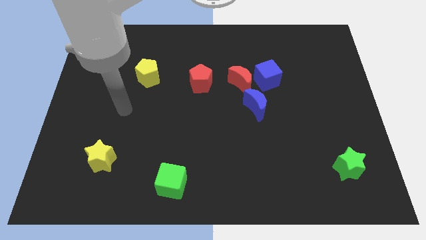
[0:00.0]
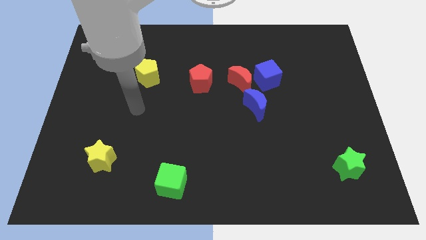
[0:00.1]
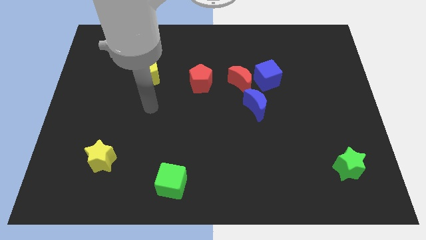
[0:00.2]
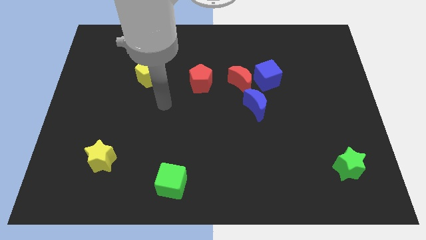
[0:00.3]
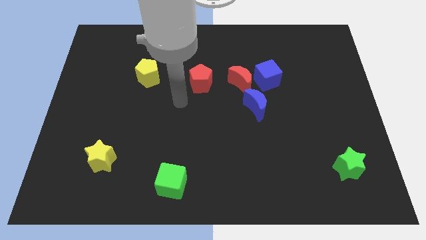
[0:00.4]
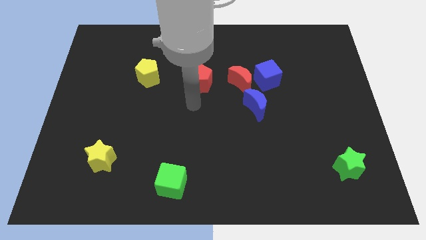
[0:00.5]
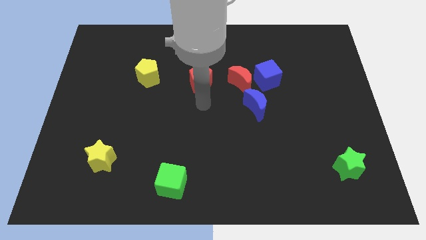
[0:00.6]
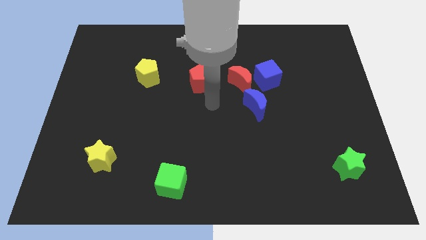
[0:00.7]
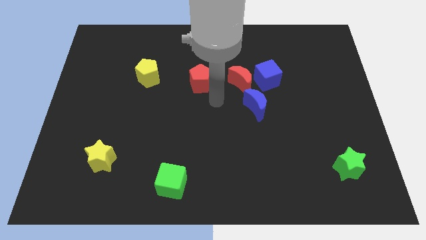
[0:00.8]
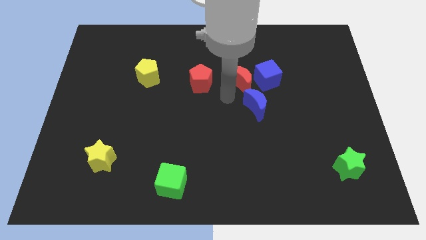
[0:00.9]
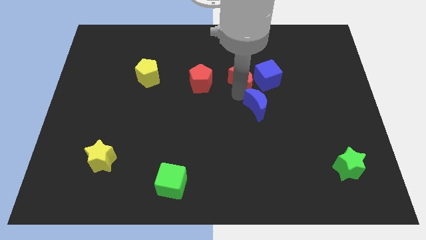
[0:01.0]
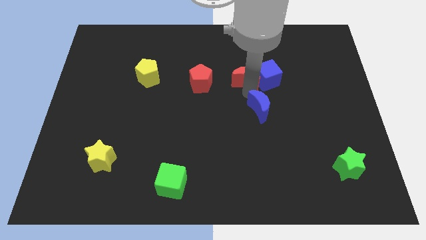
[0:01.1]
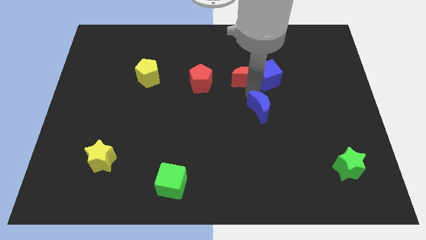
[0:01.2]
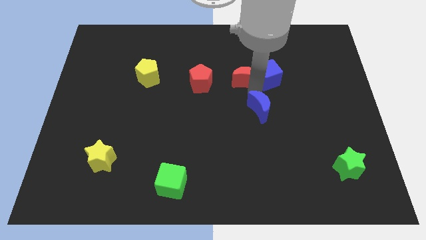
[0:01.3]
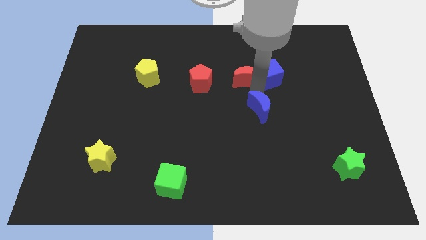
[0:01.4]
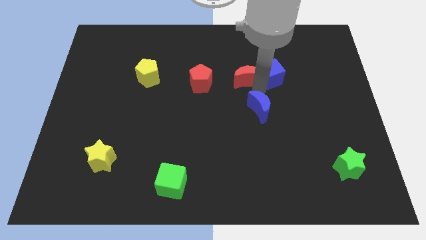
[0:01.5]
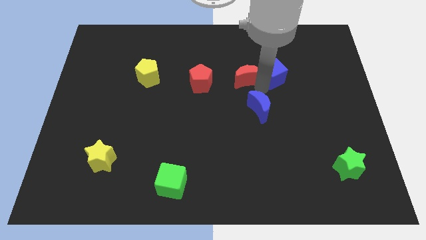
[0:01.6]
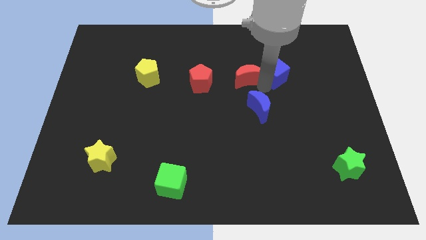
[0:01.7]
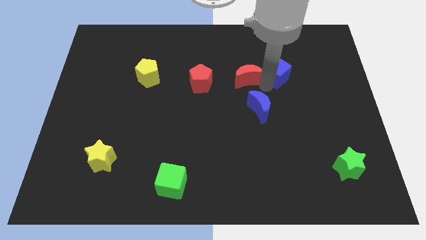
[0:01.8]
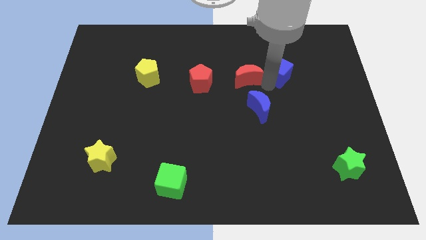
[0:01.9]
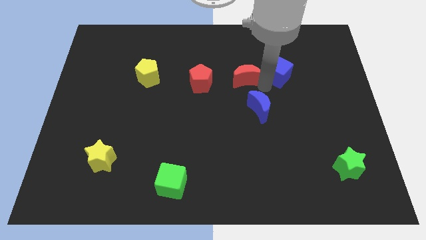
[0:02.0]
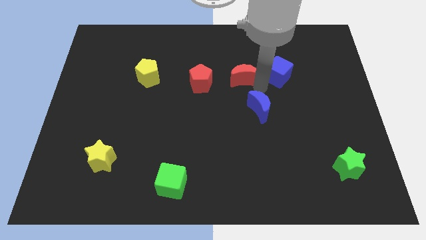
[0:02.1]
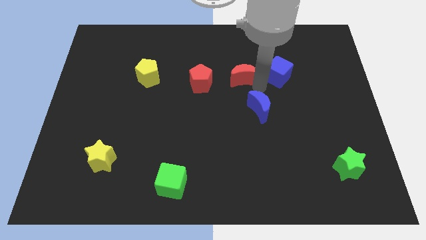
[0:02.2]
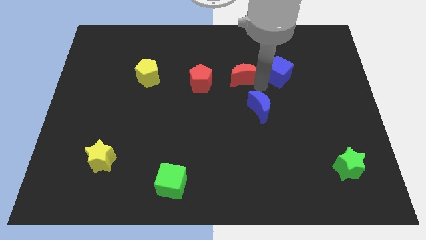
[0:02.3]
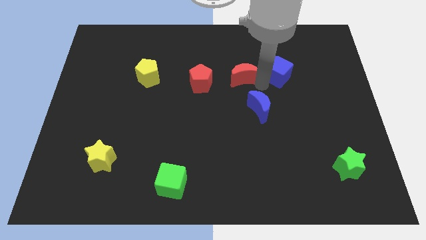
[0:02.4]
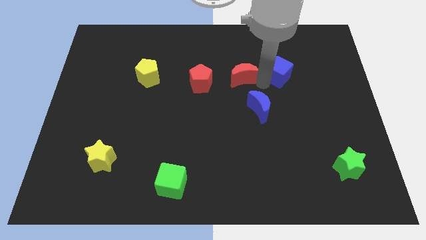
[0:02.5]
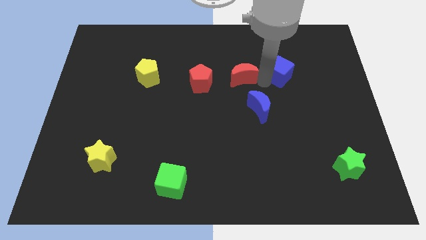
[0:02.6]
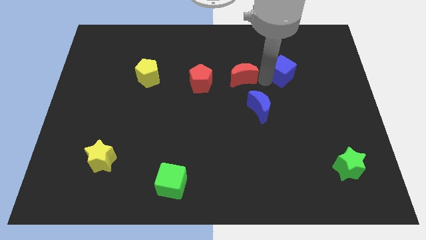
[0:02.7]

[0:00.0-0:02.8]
pull the blue cube apart from the red moon and blue moon

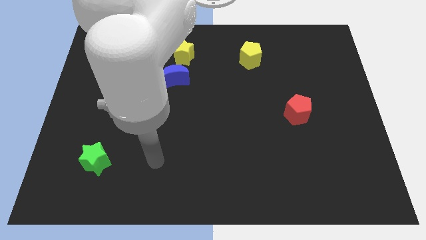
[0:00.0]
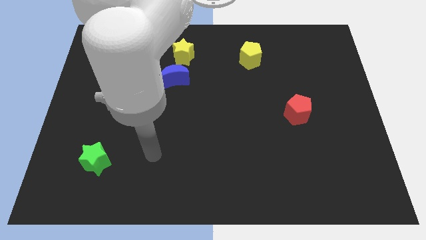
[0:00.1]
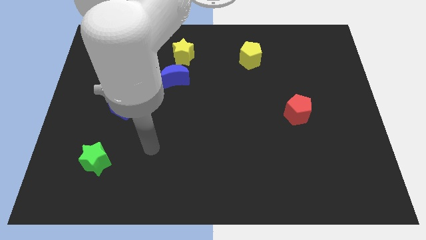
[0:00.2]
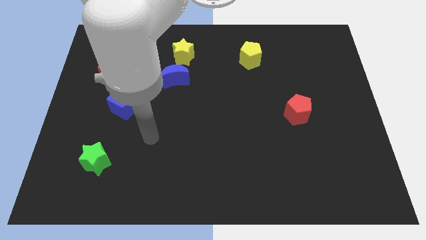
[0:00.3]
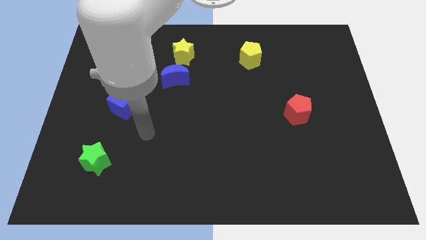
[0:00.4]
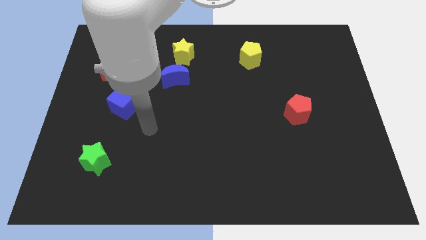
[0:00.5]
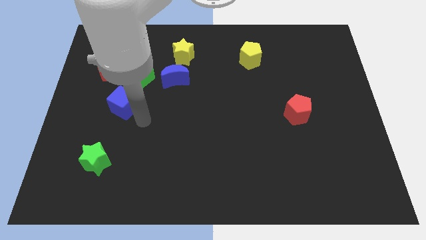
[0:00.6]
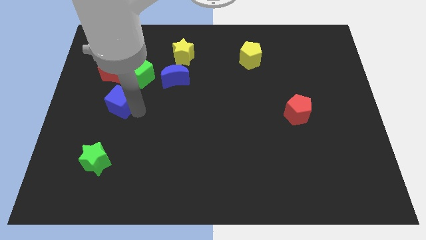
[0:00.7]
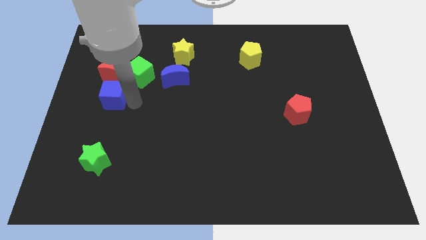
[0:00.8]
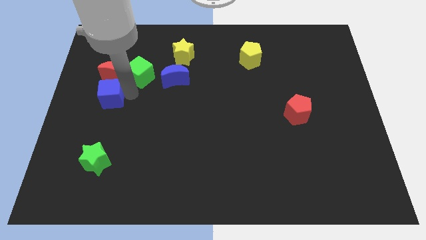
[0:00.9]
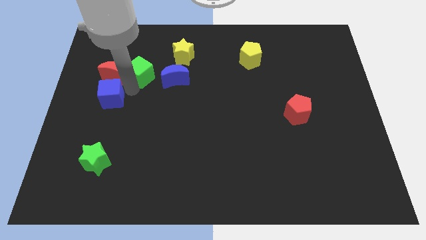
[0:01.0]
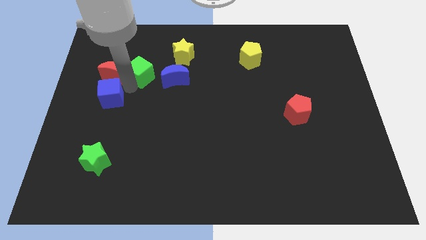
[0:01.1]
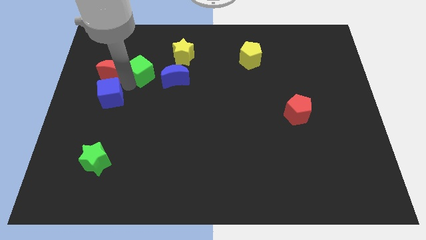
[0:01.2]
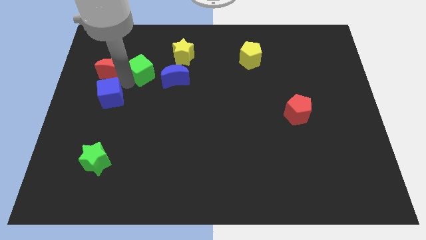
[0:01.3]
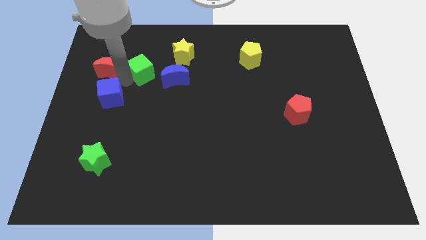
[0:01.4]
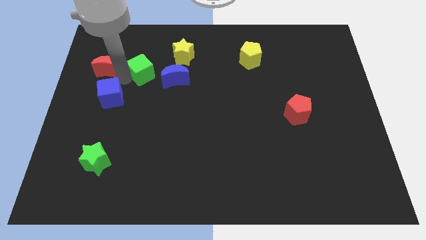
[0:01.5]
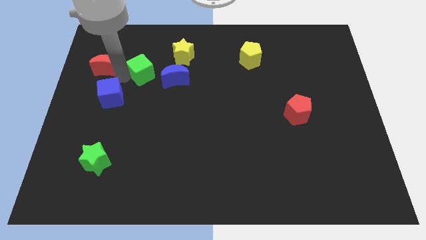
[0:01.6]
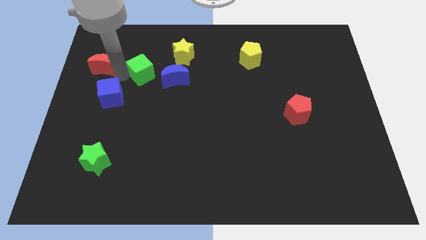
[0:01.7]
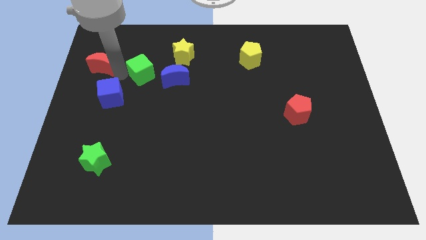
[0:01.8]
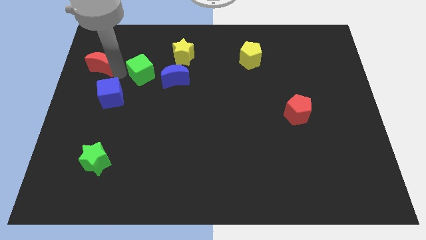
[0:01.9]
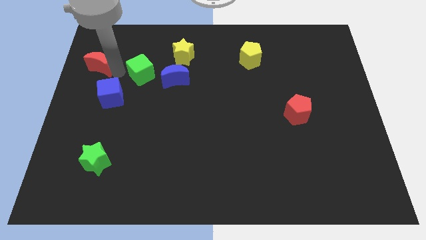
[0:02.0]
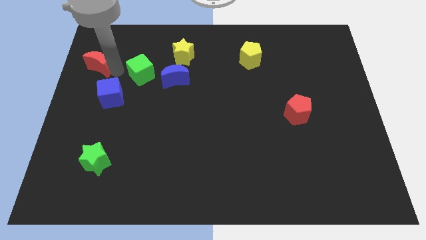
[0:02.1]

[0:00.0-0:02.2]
pull the red moon apart from the green cube and blue cube

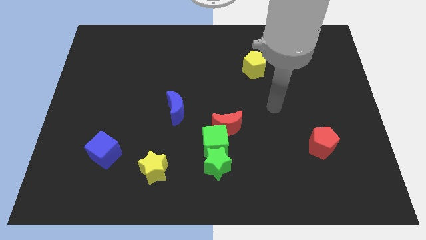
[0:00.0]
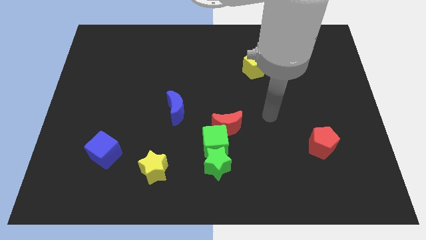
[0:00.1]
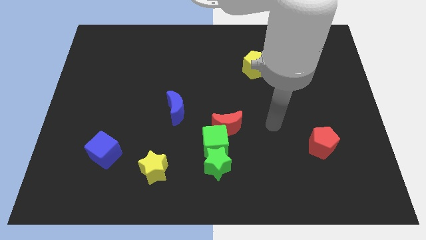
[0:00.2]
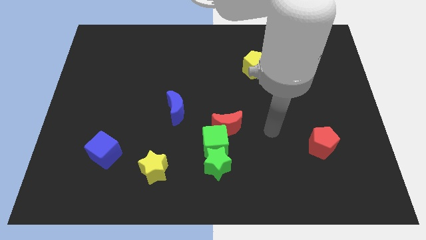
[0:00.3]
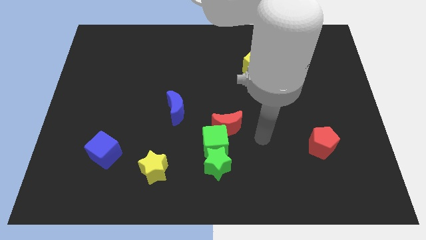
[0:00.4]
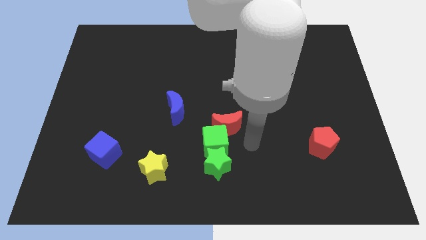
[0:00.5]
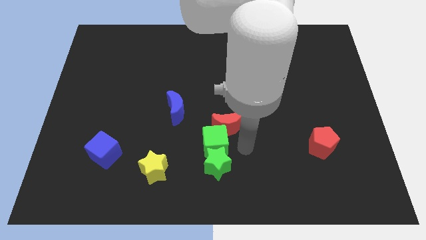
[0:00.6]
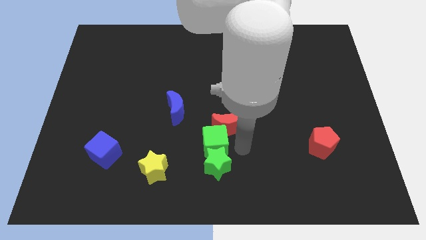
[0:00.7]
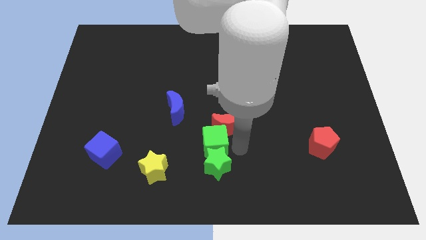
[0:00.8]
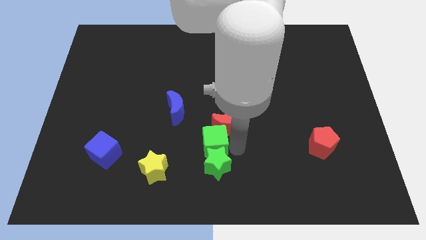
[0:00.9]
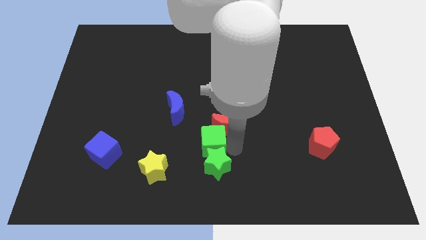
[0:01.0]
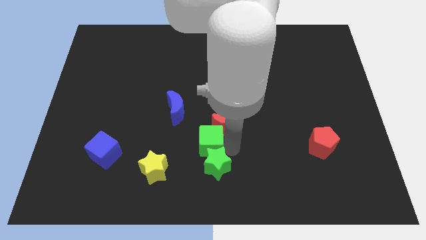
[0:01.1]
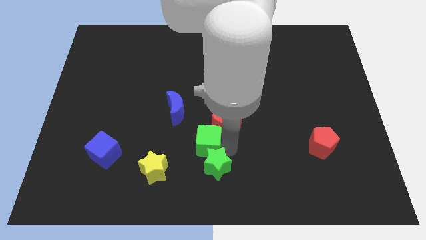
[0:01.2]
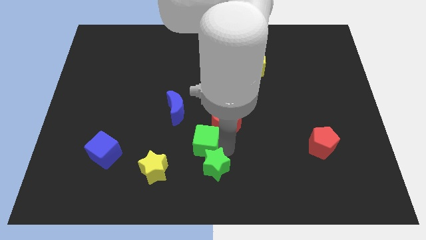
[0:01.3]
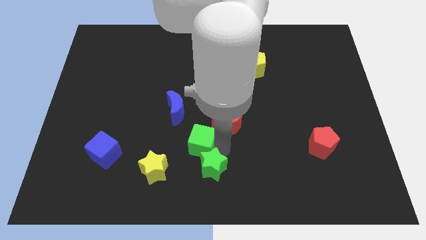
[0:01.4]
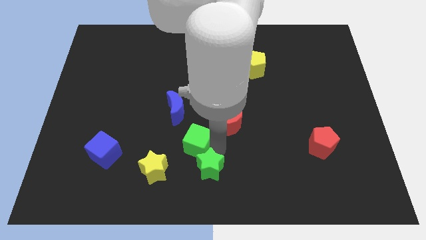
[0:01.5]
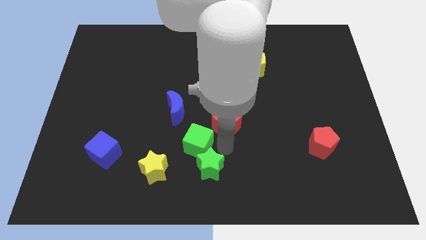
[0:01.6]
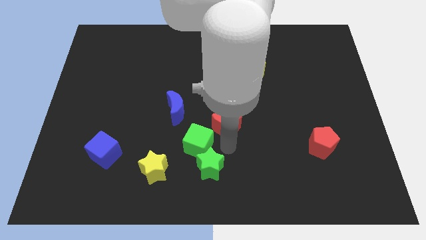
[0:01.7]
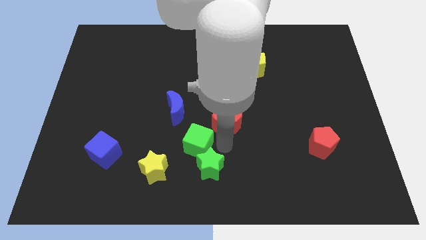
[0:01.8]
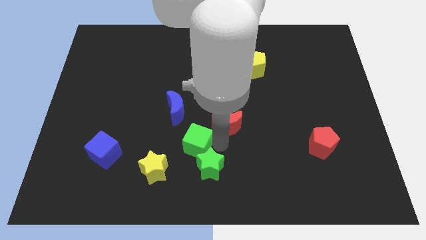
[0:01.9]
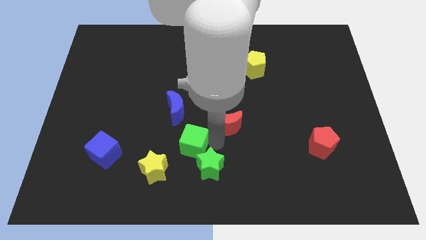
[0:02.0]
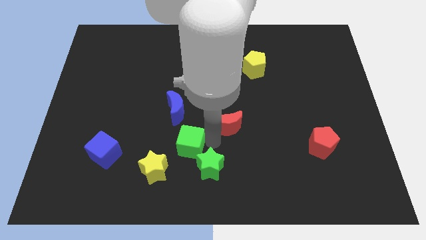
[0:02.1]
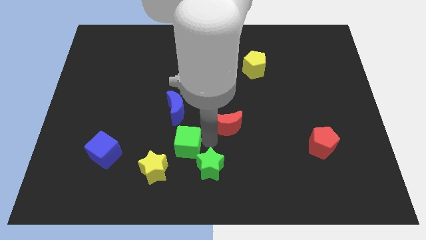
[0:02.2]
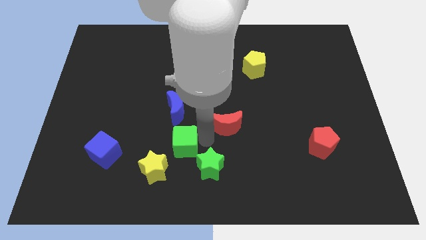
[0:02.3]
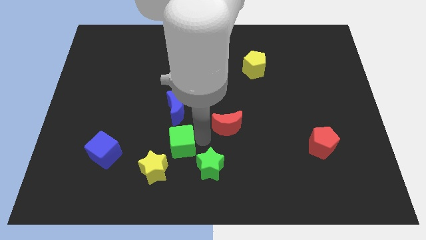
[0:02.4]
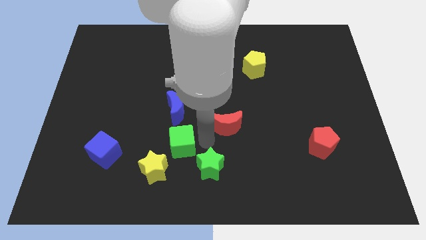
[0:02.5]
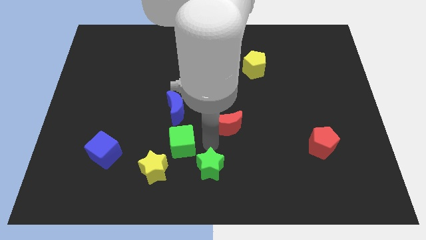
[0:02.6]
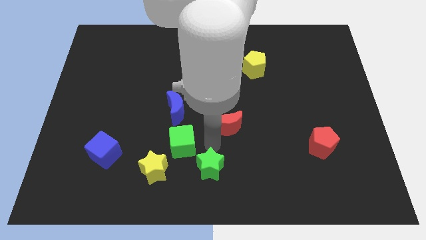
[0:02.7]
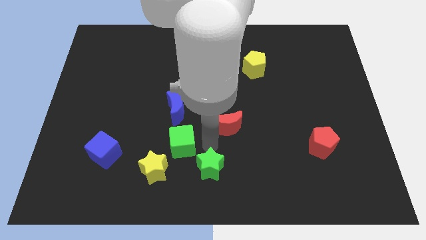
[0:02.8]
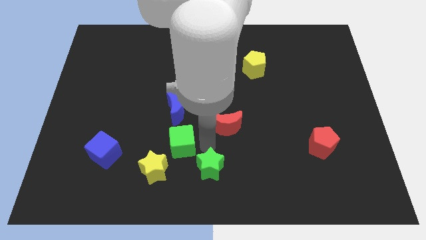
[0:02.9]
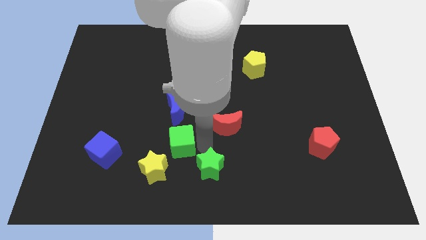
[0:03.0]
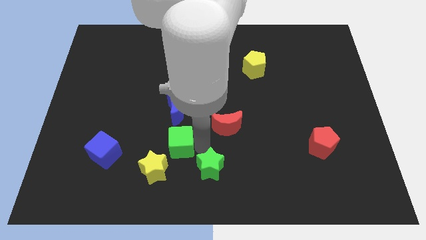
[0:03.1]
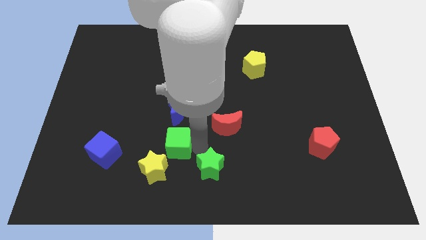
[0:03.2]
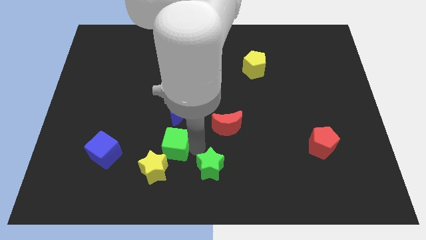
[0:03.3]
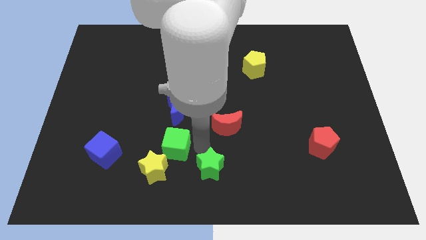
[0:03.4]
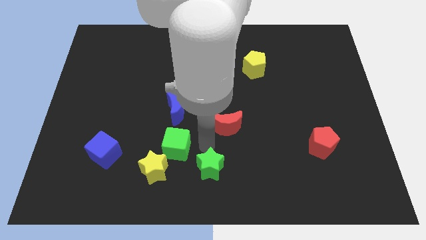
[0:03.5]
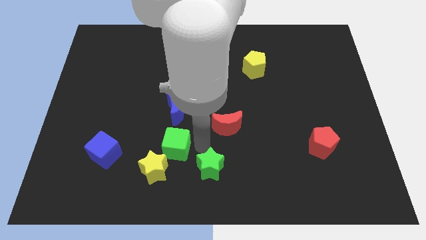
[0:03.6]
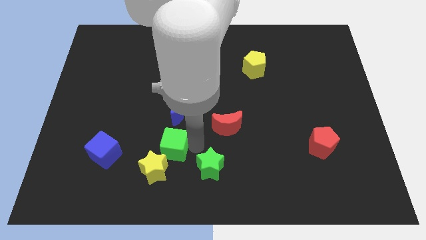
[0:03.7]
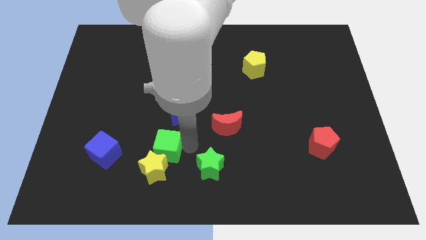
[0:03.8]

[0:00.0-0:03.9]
separate the green cube from the red moon and green star

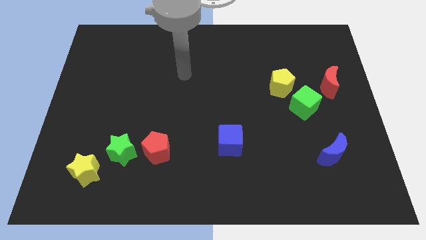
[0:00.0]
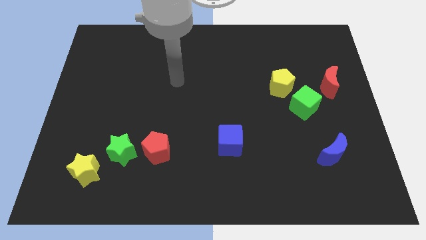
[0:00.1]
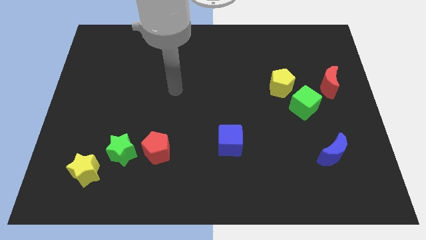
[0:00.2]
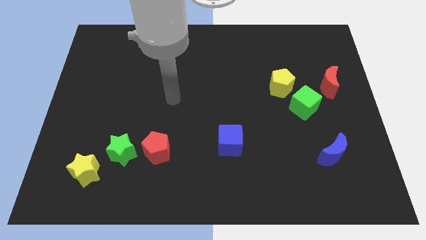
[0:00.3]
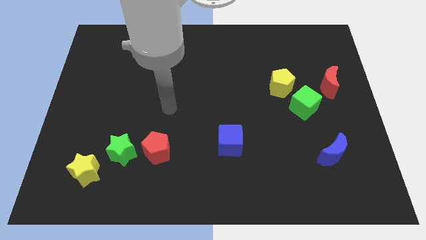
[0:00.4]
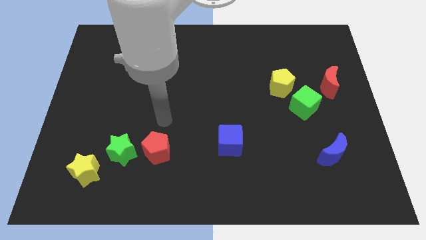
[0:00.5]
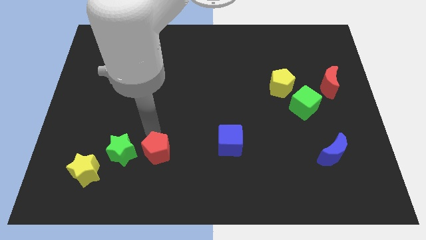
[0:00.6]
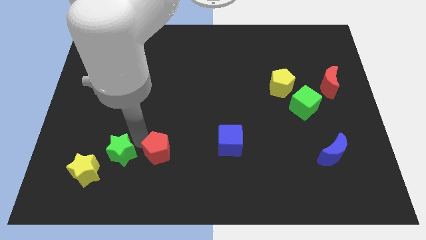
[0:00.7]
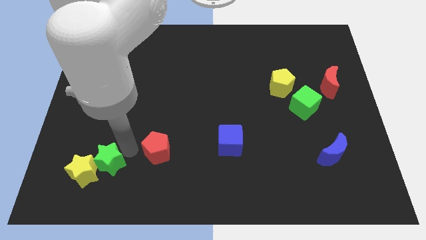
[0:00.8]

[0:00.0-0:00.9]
move the red pentagon away from the green star
